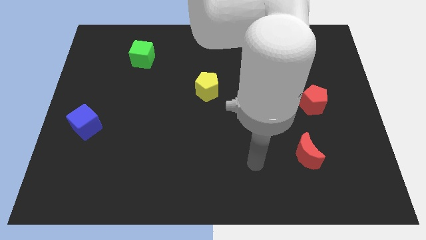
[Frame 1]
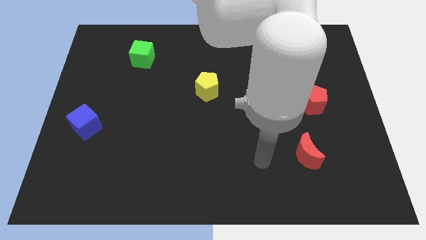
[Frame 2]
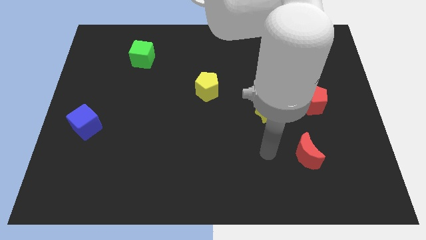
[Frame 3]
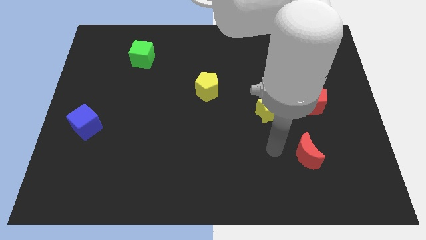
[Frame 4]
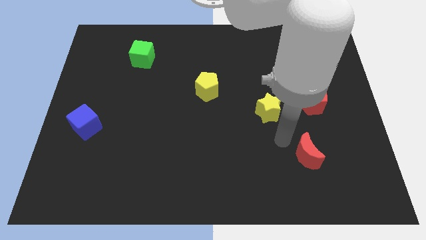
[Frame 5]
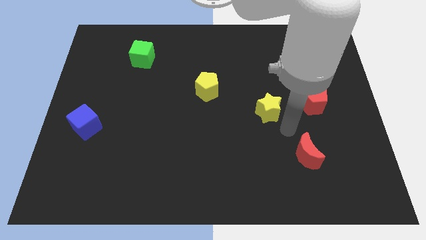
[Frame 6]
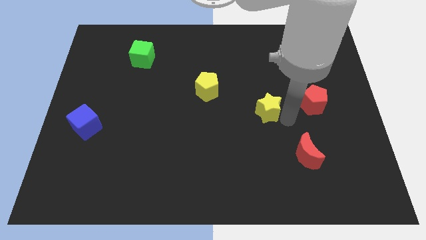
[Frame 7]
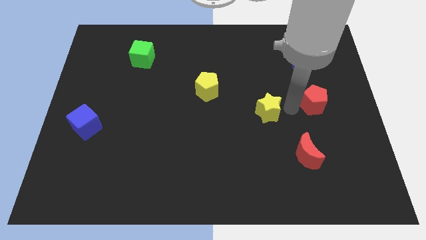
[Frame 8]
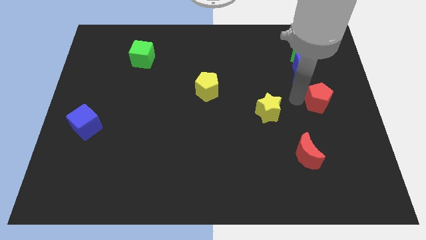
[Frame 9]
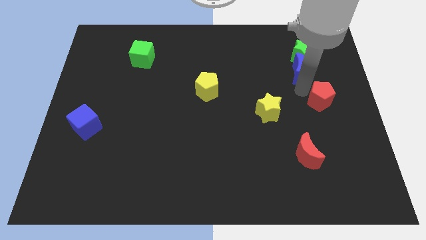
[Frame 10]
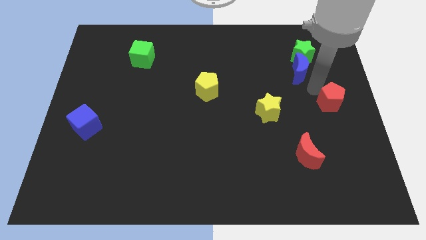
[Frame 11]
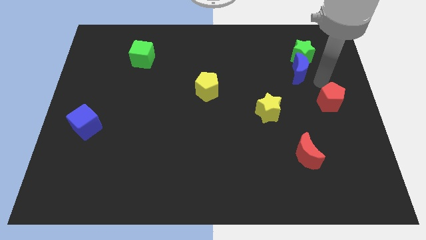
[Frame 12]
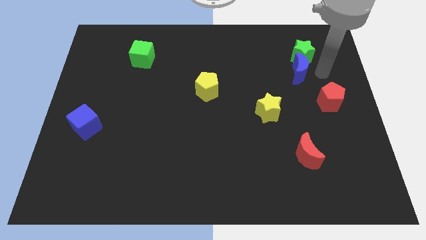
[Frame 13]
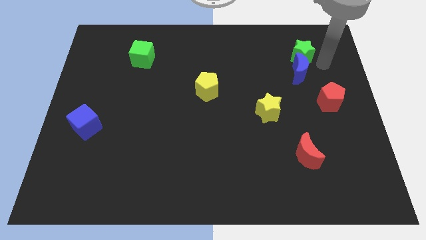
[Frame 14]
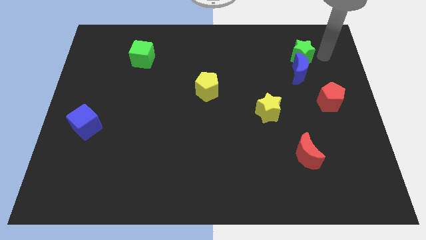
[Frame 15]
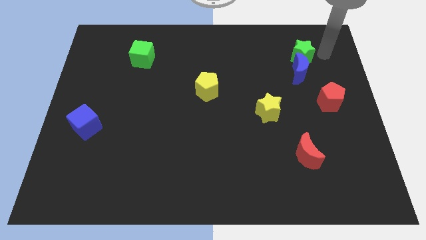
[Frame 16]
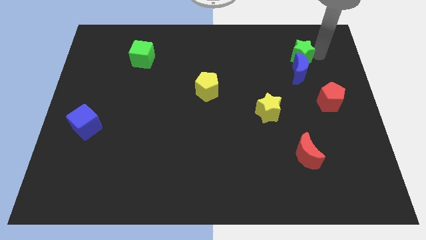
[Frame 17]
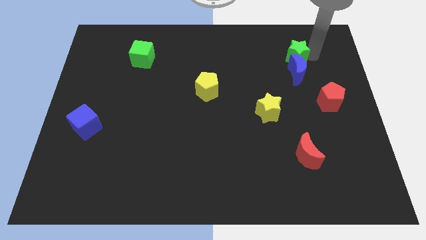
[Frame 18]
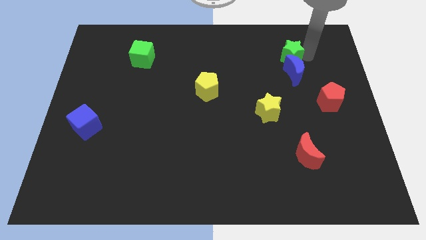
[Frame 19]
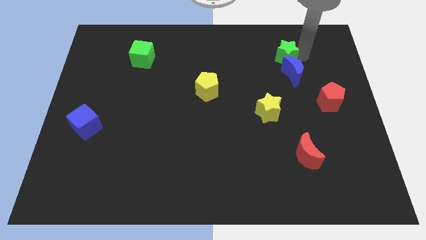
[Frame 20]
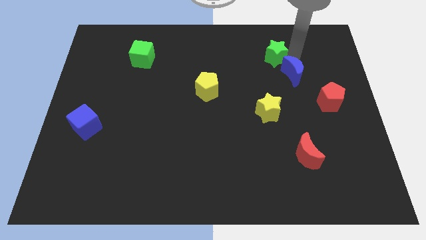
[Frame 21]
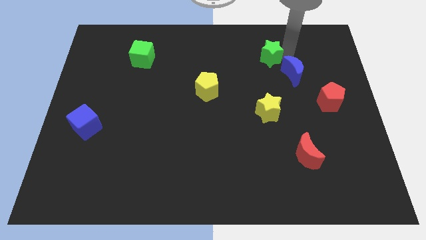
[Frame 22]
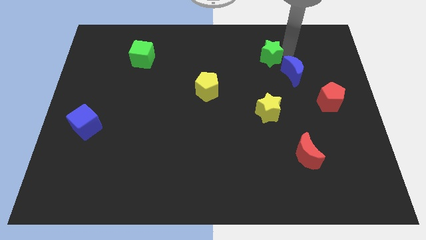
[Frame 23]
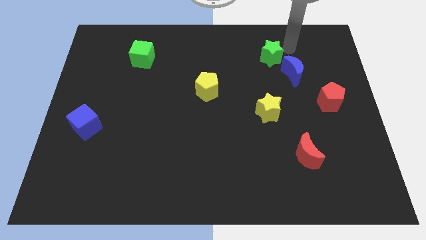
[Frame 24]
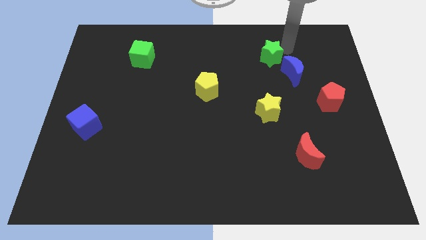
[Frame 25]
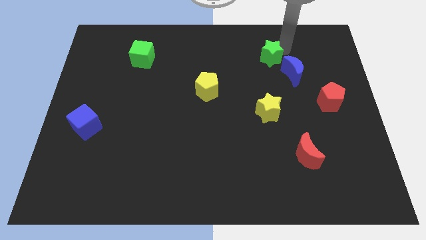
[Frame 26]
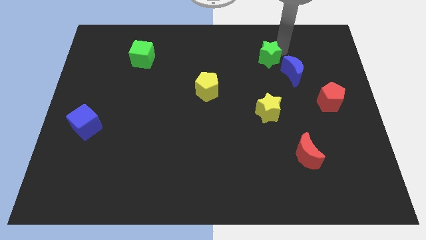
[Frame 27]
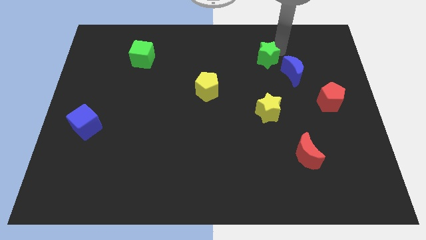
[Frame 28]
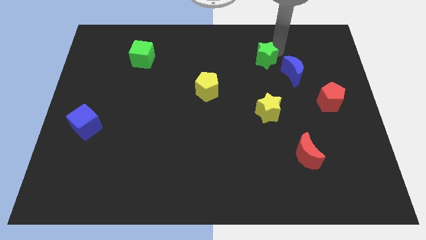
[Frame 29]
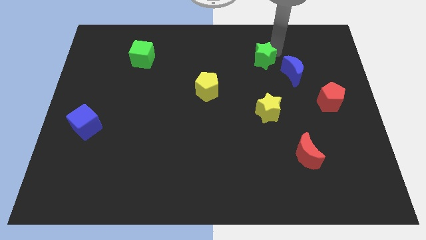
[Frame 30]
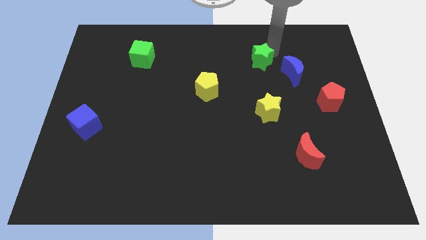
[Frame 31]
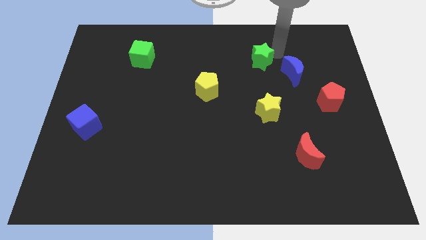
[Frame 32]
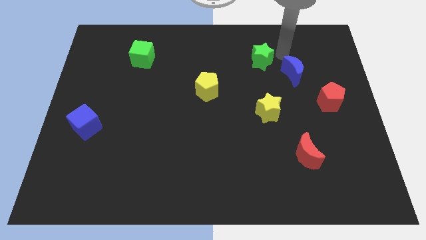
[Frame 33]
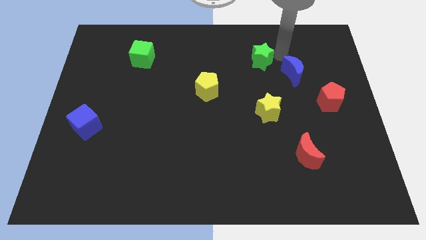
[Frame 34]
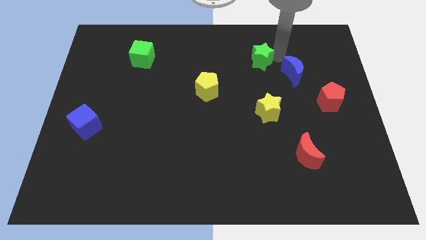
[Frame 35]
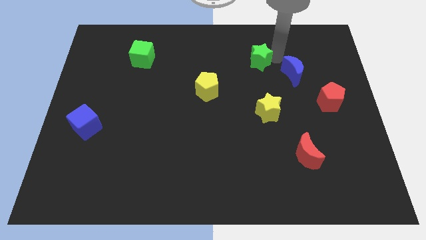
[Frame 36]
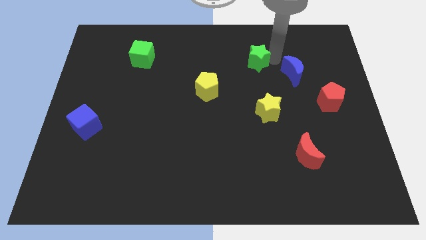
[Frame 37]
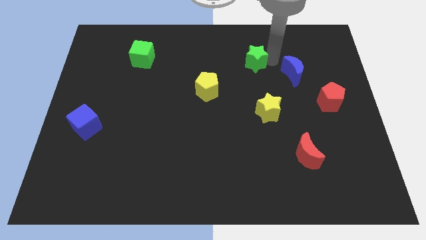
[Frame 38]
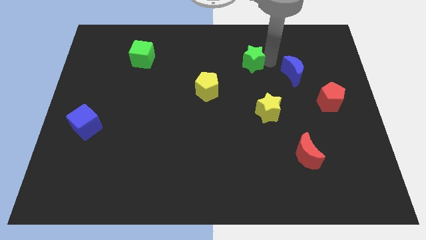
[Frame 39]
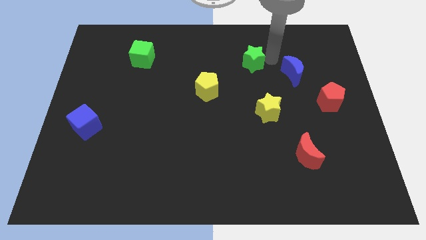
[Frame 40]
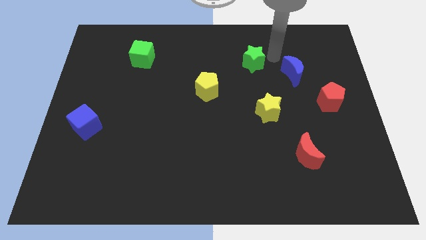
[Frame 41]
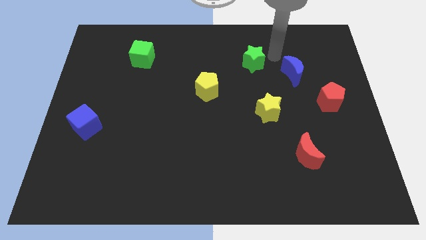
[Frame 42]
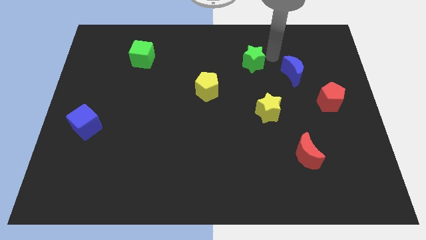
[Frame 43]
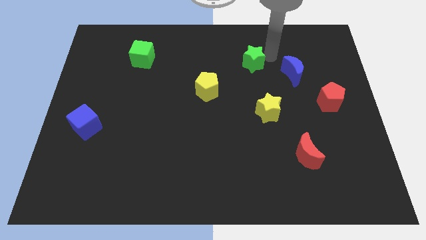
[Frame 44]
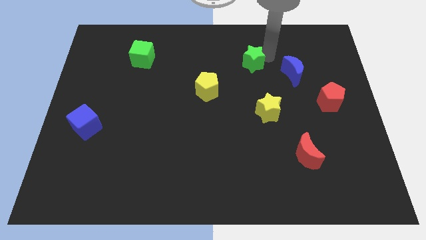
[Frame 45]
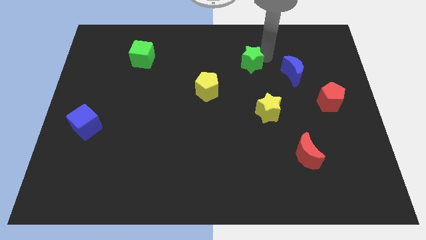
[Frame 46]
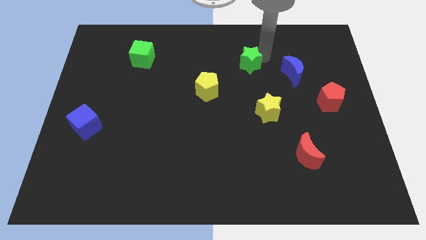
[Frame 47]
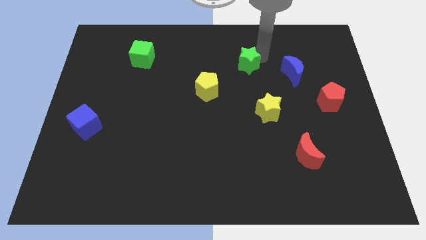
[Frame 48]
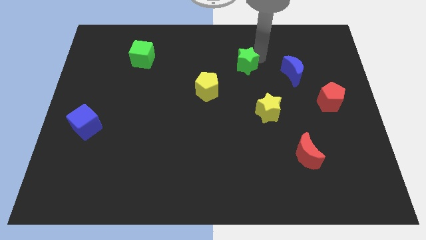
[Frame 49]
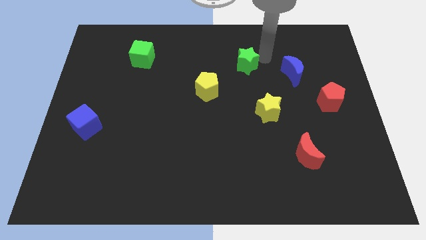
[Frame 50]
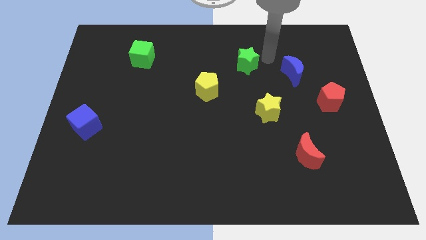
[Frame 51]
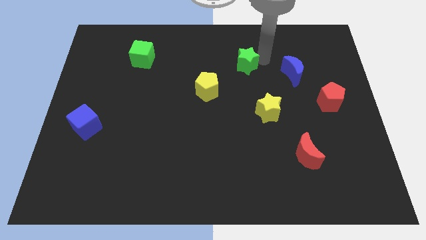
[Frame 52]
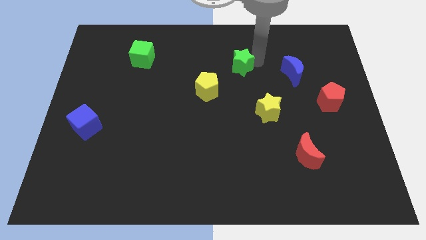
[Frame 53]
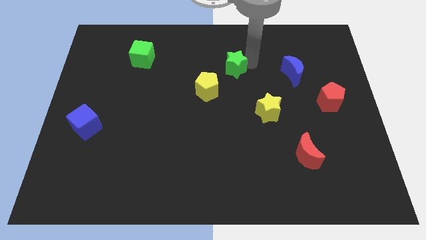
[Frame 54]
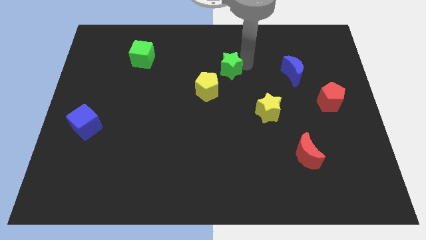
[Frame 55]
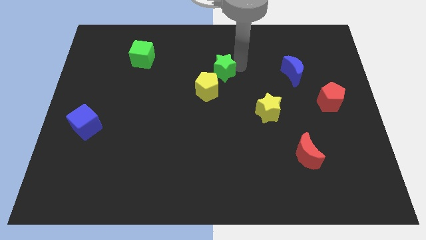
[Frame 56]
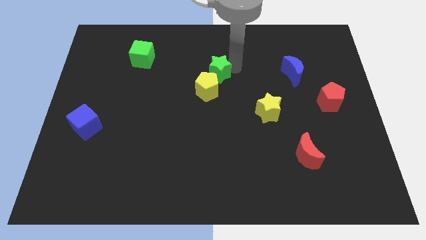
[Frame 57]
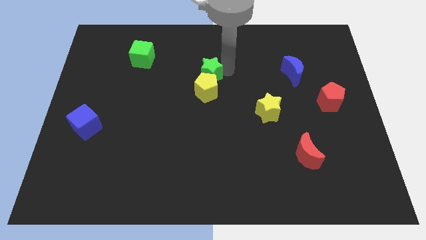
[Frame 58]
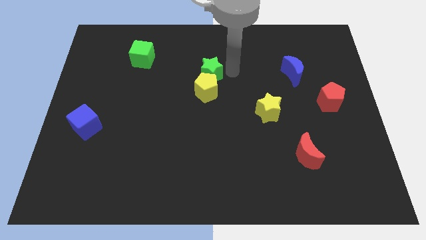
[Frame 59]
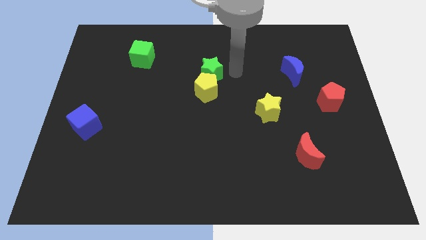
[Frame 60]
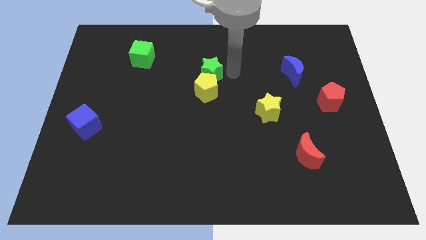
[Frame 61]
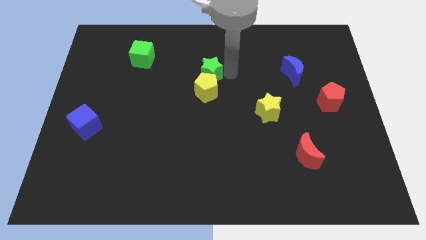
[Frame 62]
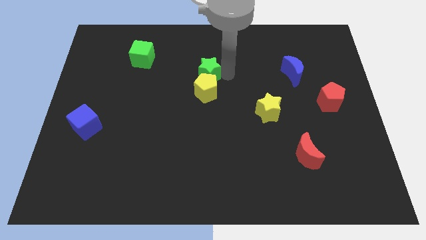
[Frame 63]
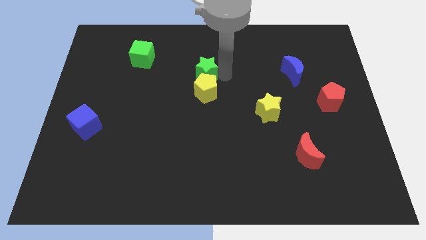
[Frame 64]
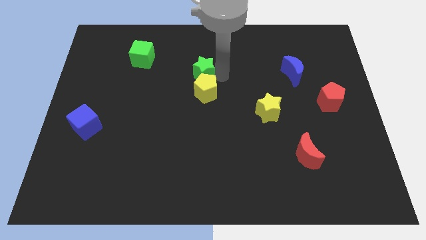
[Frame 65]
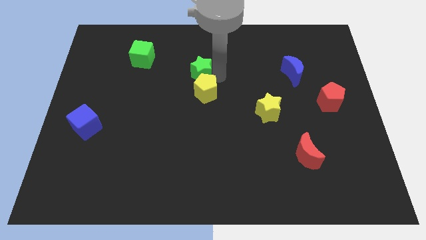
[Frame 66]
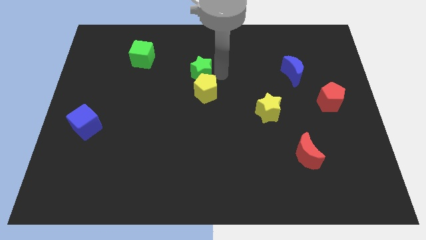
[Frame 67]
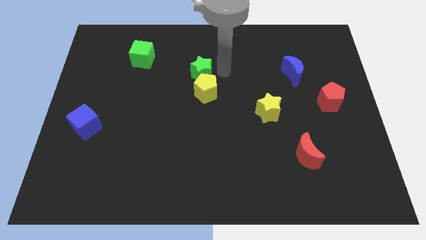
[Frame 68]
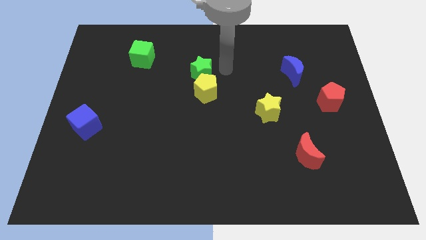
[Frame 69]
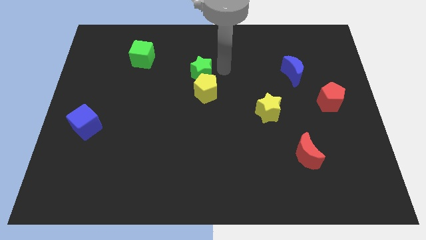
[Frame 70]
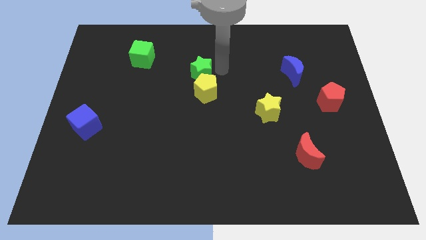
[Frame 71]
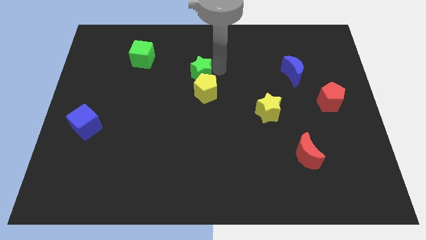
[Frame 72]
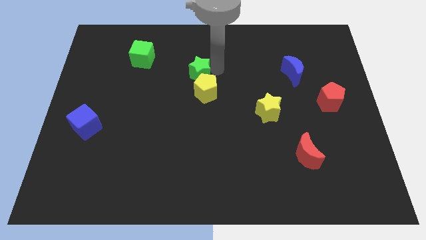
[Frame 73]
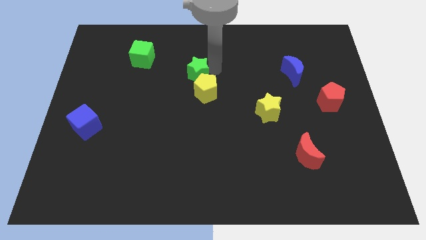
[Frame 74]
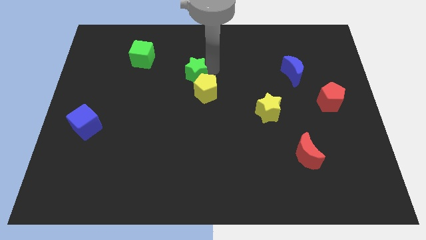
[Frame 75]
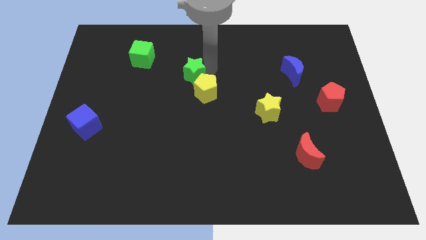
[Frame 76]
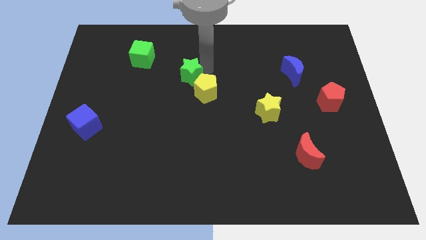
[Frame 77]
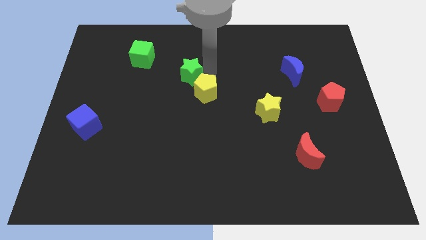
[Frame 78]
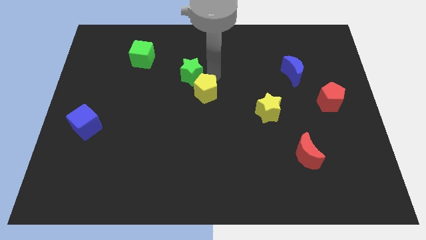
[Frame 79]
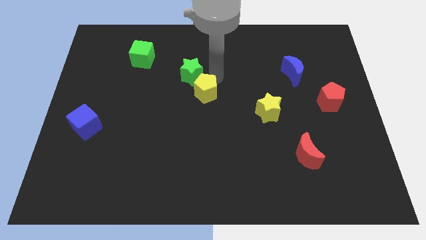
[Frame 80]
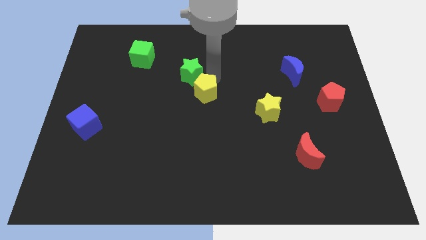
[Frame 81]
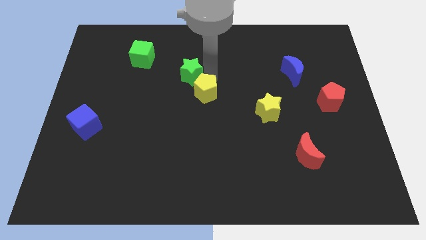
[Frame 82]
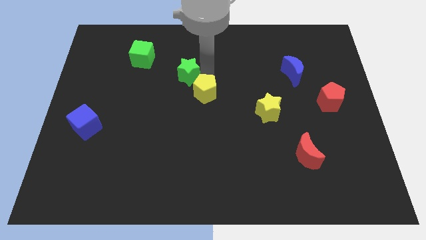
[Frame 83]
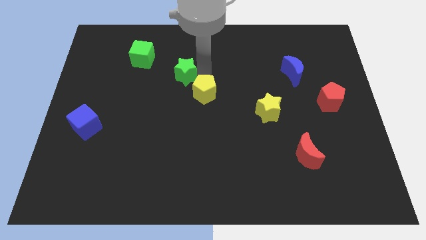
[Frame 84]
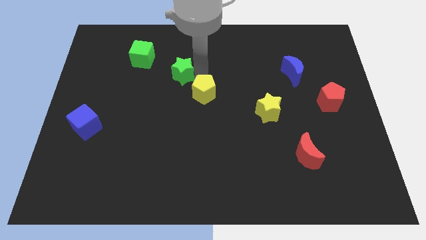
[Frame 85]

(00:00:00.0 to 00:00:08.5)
slide the green star to the bottom right of the green cube
